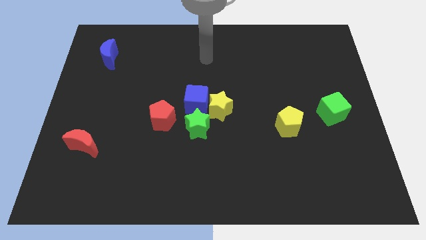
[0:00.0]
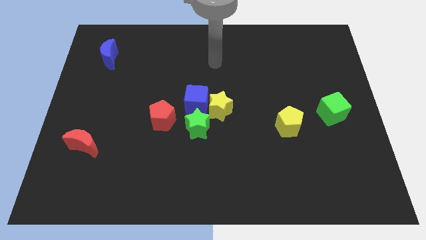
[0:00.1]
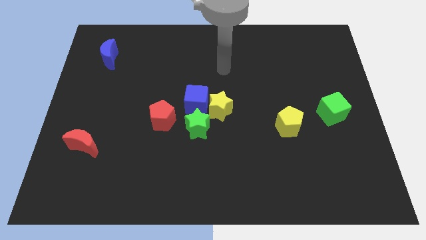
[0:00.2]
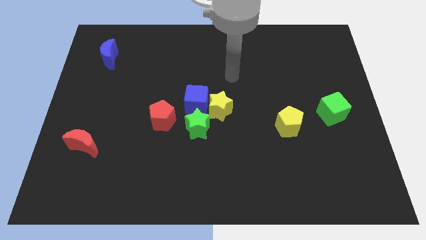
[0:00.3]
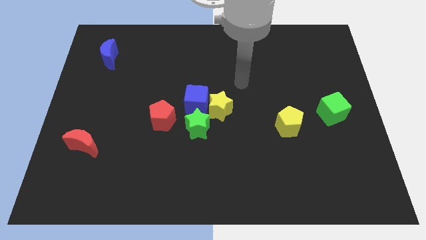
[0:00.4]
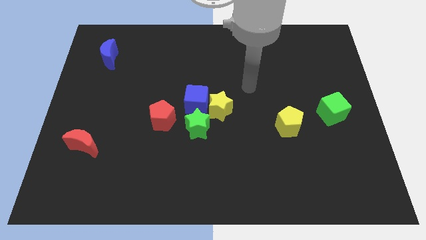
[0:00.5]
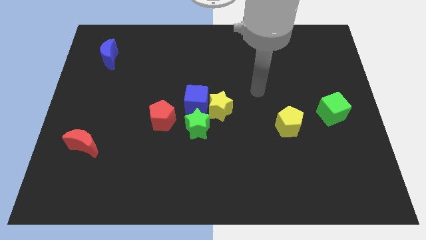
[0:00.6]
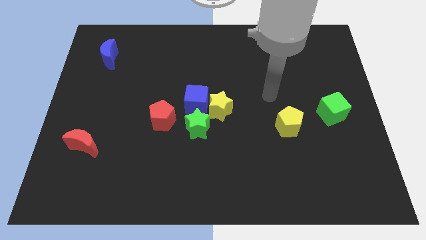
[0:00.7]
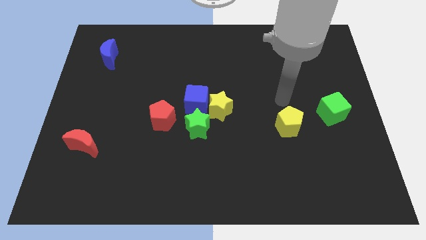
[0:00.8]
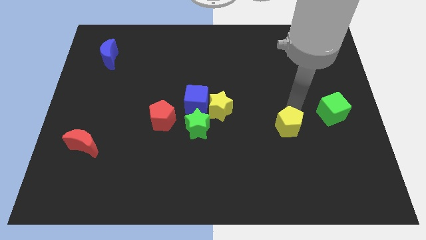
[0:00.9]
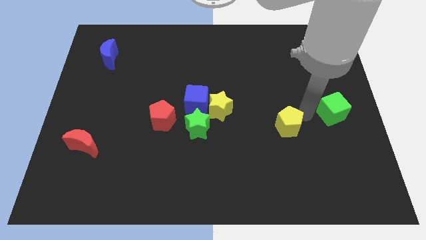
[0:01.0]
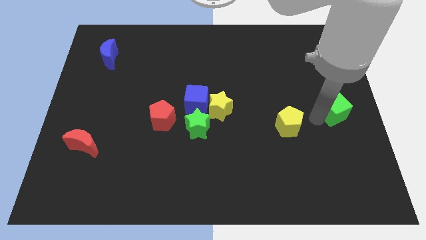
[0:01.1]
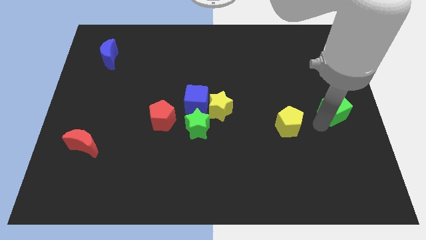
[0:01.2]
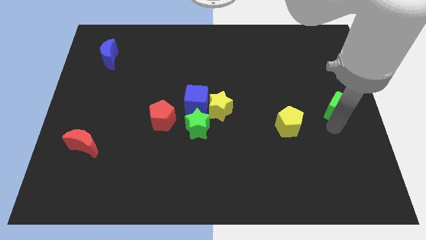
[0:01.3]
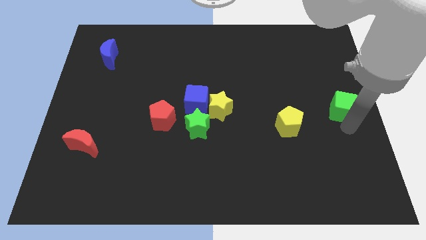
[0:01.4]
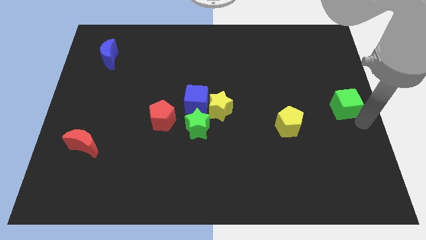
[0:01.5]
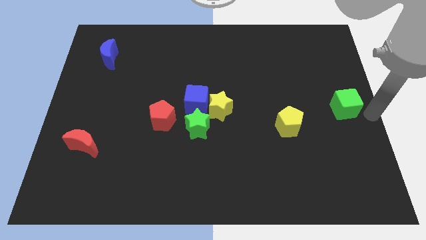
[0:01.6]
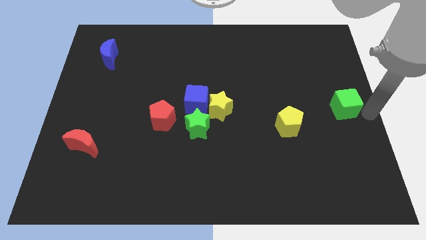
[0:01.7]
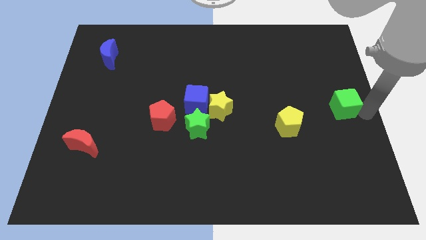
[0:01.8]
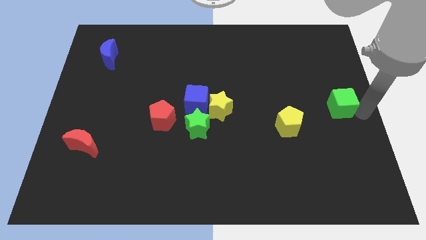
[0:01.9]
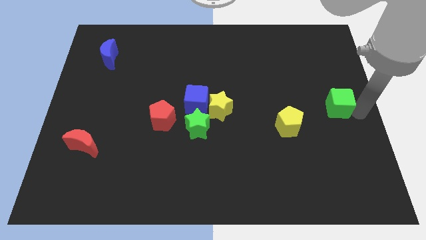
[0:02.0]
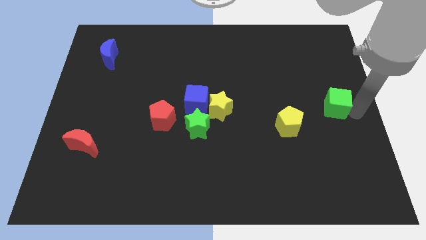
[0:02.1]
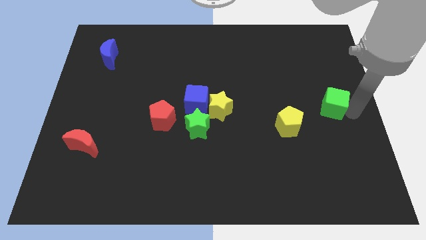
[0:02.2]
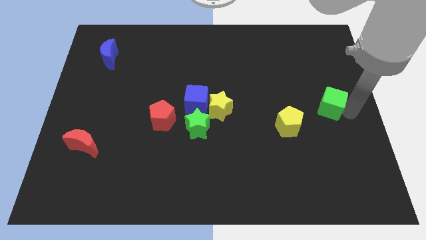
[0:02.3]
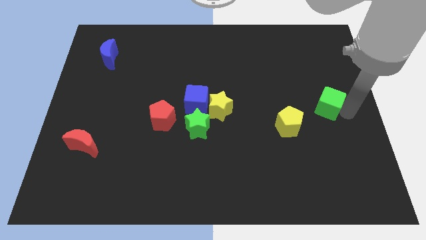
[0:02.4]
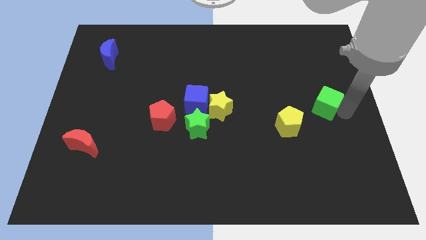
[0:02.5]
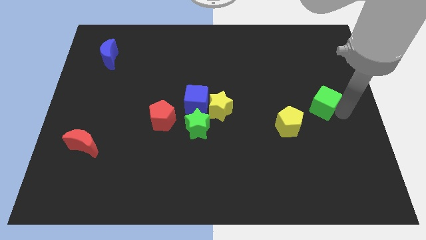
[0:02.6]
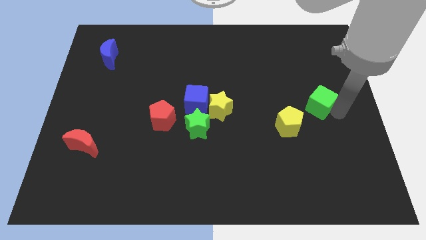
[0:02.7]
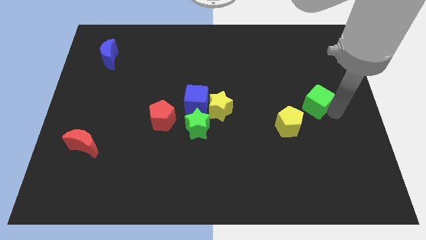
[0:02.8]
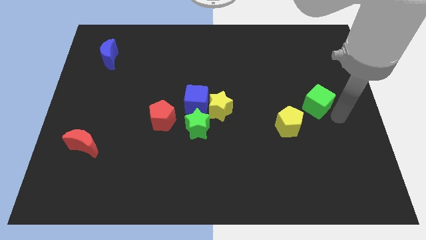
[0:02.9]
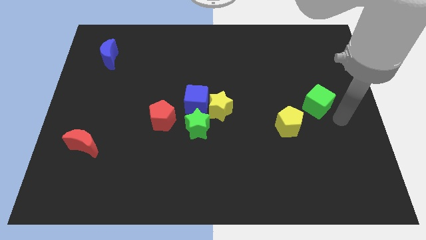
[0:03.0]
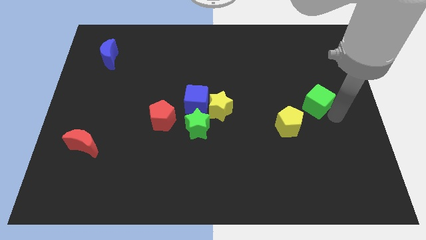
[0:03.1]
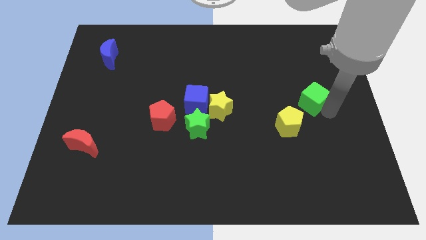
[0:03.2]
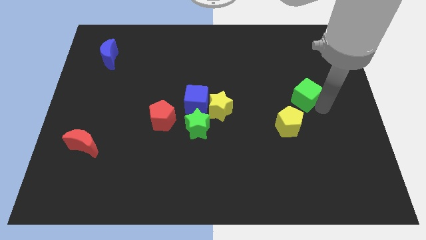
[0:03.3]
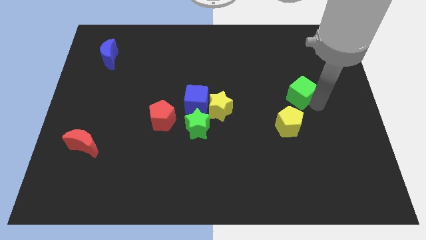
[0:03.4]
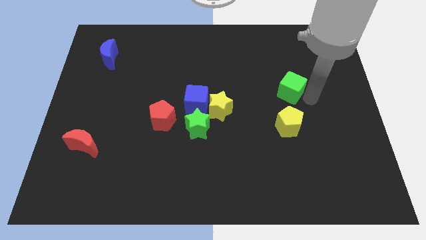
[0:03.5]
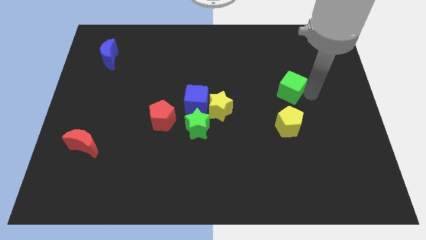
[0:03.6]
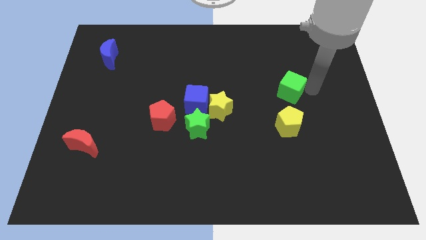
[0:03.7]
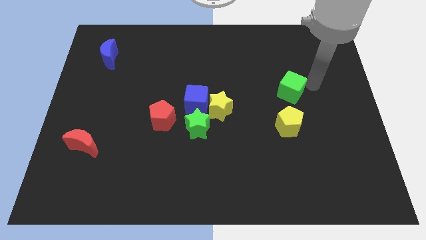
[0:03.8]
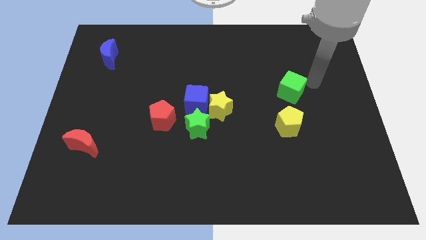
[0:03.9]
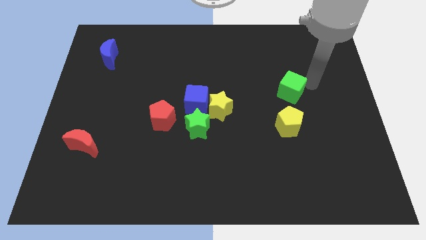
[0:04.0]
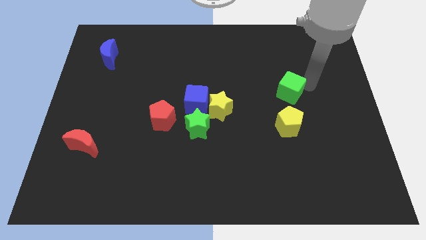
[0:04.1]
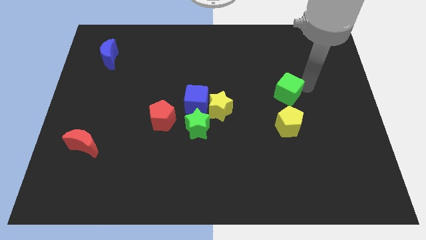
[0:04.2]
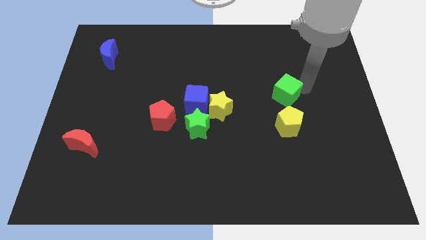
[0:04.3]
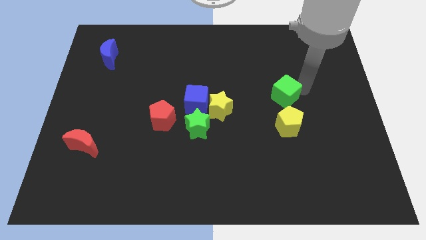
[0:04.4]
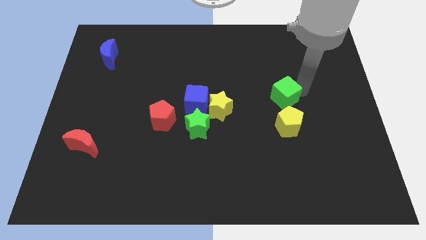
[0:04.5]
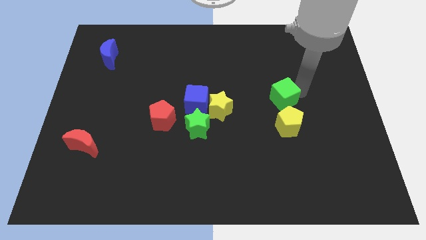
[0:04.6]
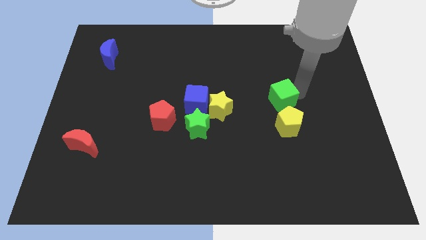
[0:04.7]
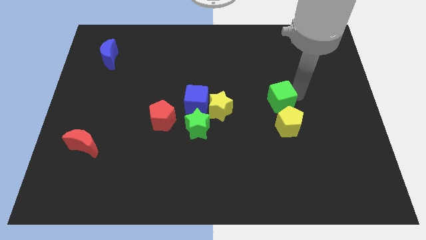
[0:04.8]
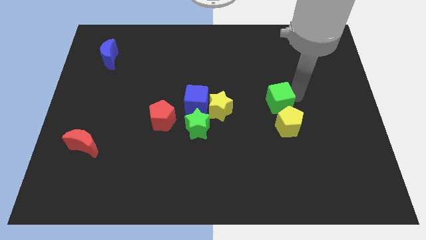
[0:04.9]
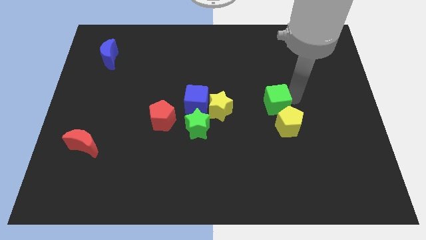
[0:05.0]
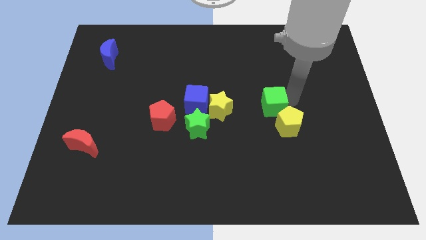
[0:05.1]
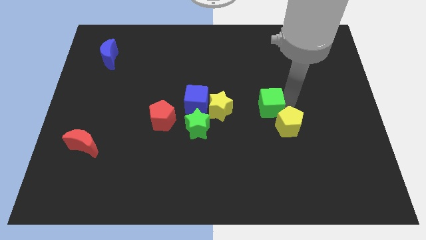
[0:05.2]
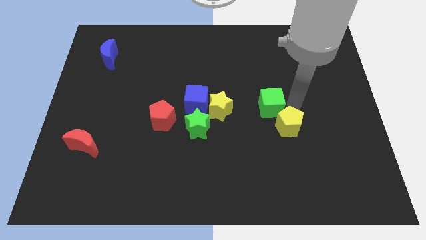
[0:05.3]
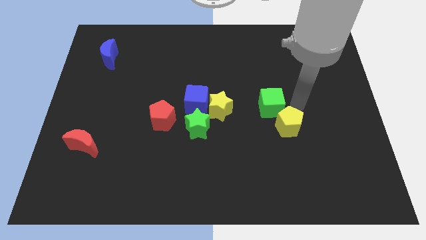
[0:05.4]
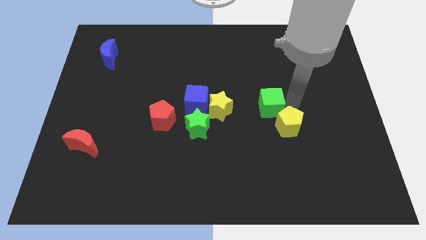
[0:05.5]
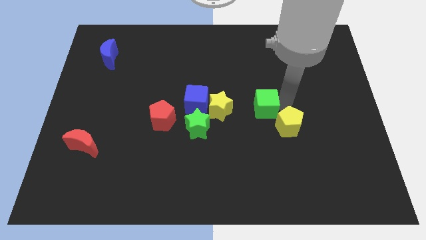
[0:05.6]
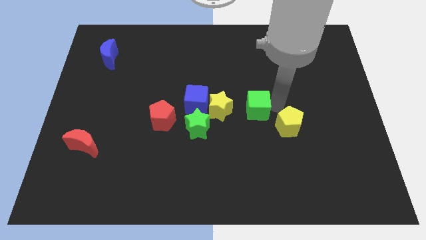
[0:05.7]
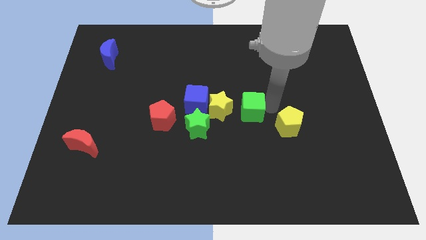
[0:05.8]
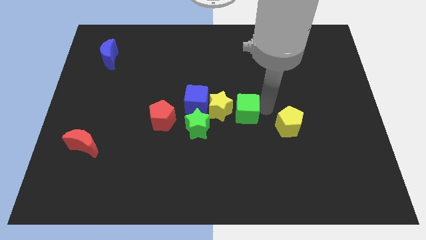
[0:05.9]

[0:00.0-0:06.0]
slide the green cube next to the yellow star
